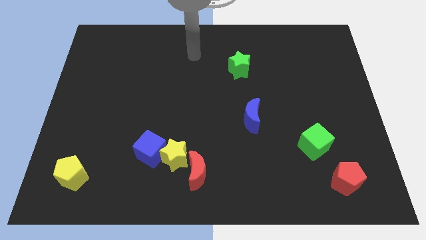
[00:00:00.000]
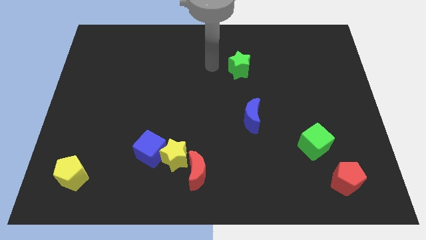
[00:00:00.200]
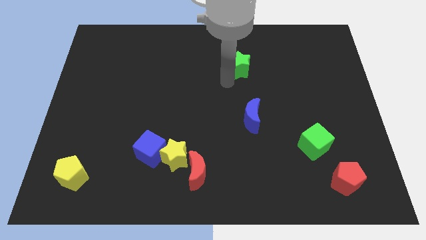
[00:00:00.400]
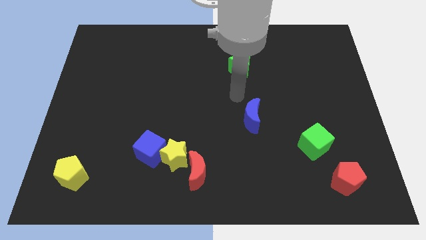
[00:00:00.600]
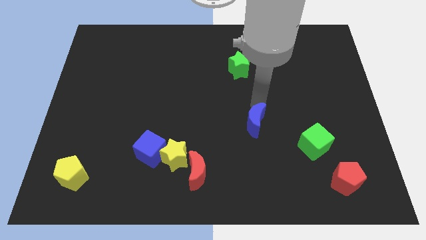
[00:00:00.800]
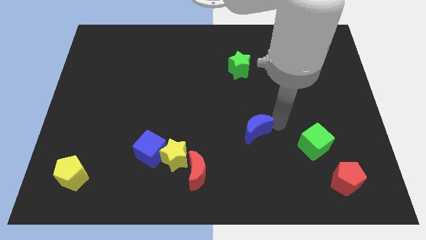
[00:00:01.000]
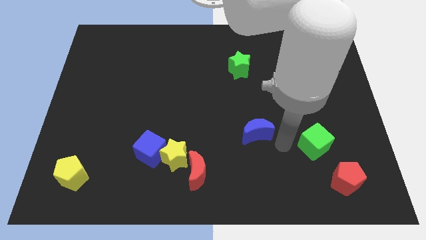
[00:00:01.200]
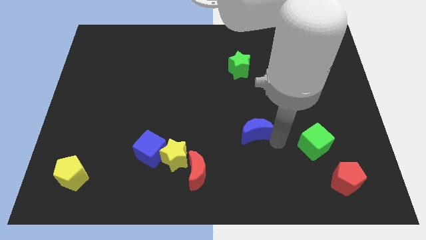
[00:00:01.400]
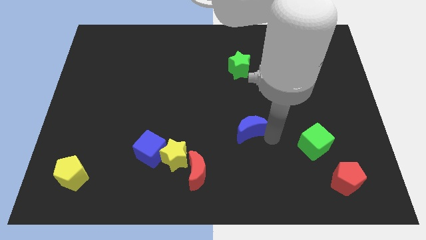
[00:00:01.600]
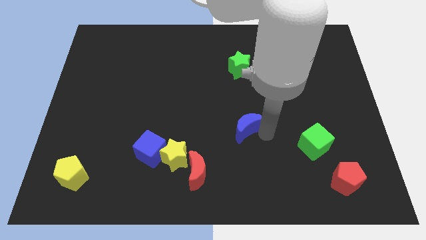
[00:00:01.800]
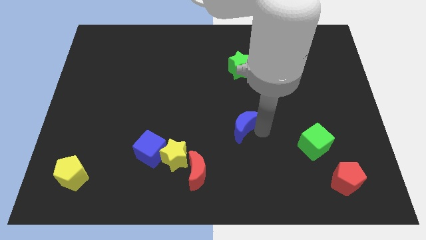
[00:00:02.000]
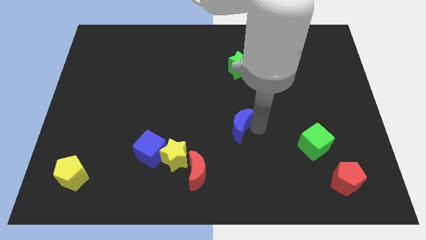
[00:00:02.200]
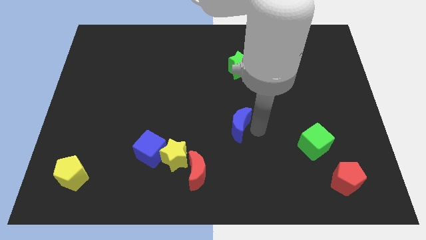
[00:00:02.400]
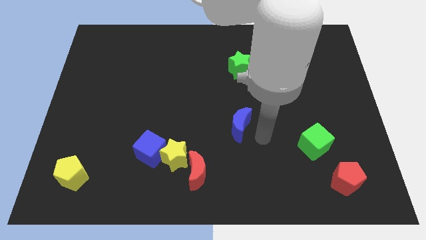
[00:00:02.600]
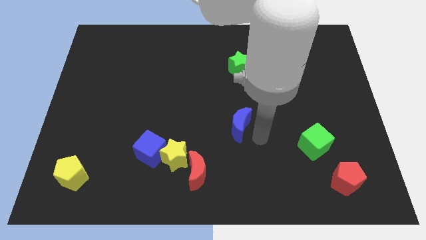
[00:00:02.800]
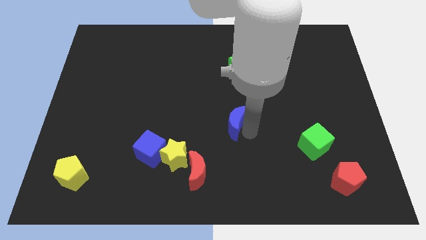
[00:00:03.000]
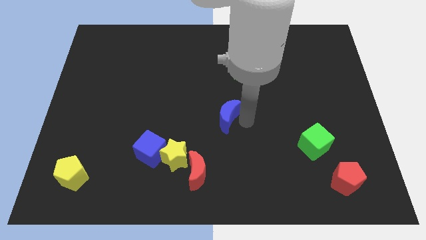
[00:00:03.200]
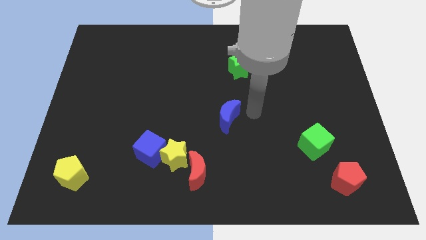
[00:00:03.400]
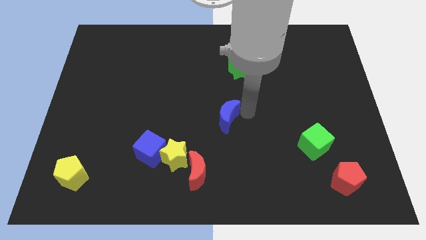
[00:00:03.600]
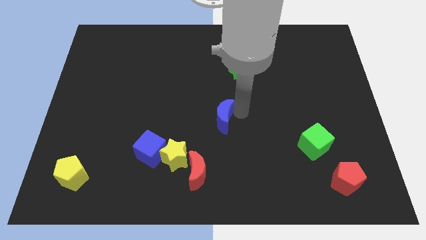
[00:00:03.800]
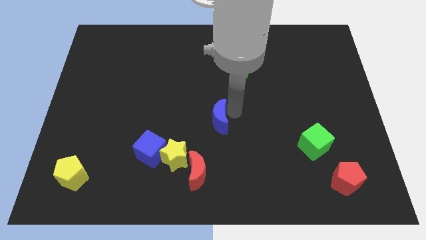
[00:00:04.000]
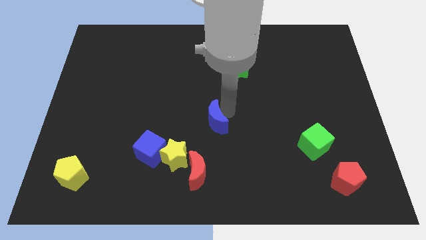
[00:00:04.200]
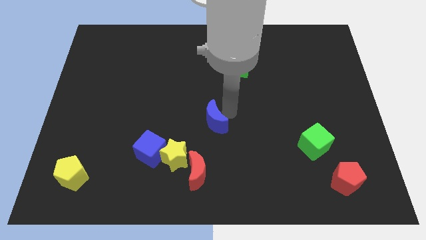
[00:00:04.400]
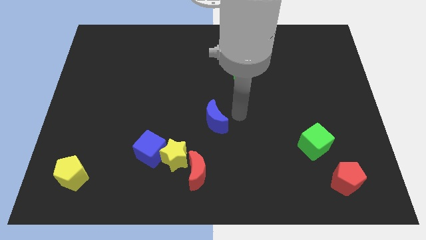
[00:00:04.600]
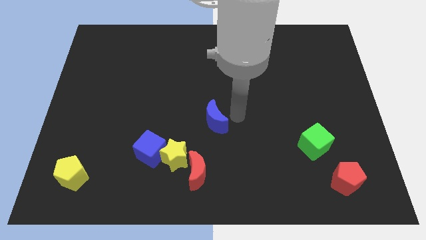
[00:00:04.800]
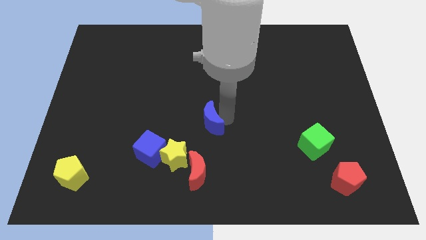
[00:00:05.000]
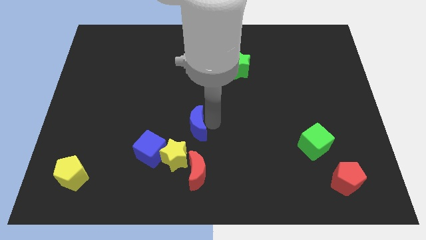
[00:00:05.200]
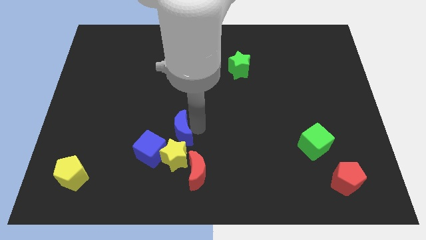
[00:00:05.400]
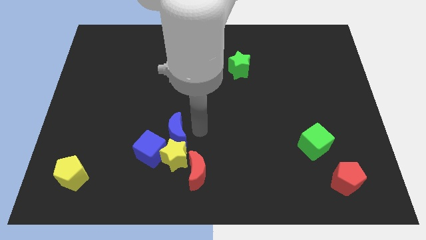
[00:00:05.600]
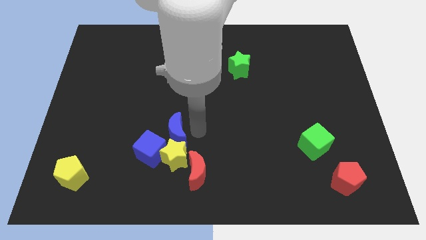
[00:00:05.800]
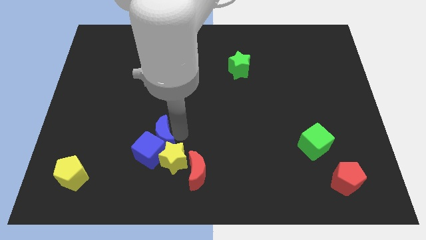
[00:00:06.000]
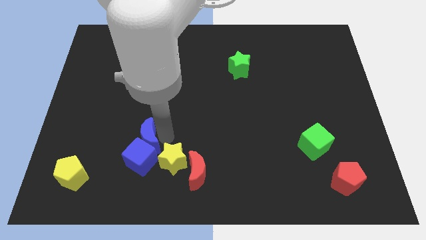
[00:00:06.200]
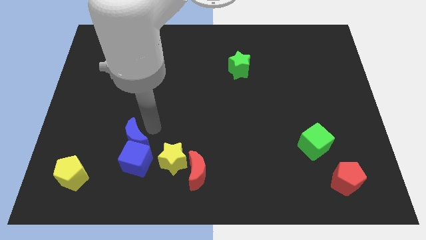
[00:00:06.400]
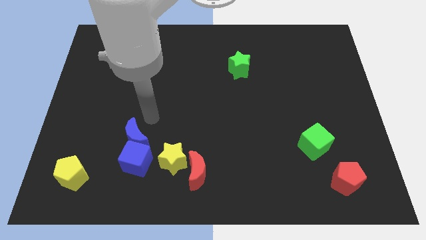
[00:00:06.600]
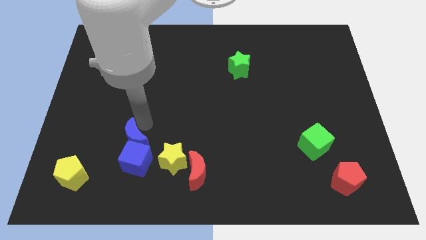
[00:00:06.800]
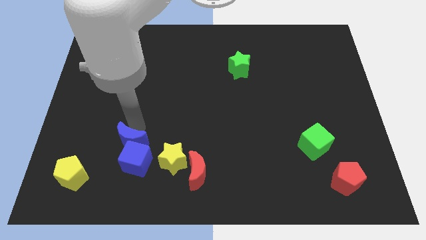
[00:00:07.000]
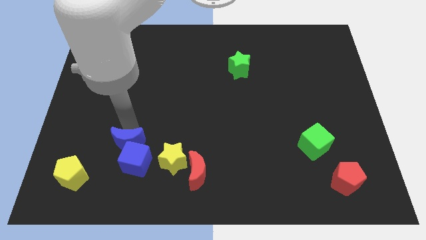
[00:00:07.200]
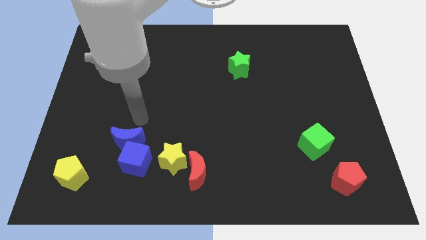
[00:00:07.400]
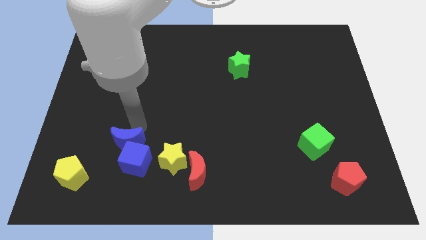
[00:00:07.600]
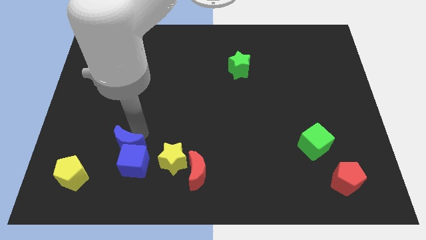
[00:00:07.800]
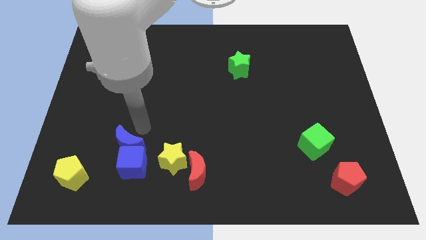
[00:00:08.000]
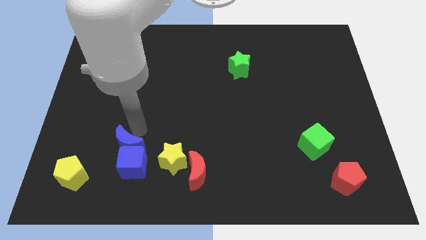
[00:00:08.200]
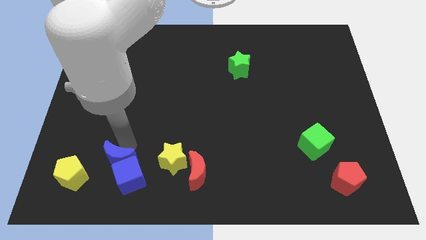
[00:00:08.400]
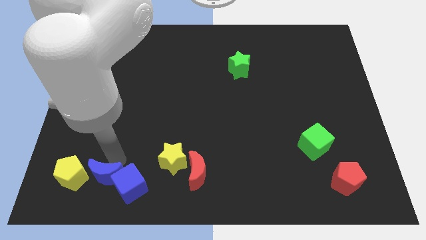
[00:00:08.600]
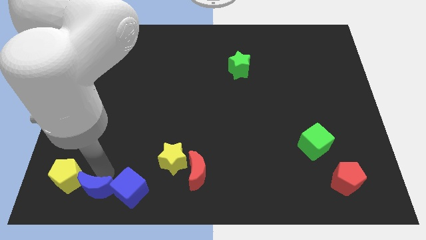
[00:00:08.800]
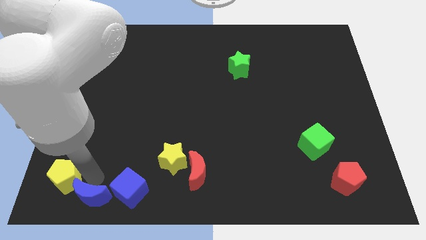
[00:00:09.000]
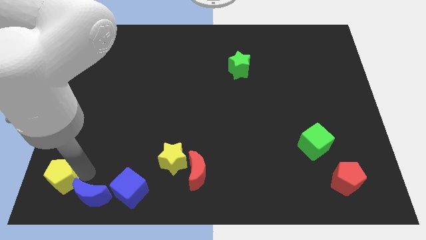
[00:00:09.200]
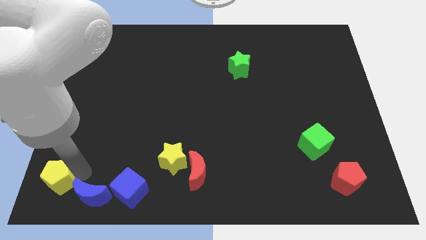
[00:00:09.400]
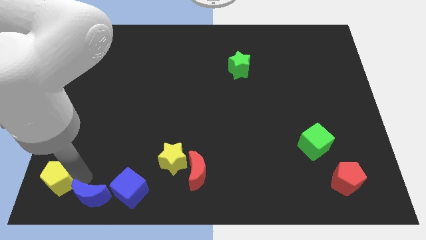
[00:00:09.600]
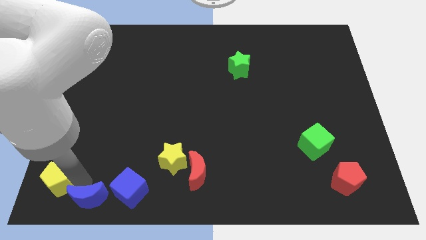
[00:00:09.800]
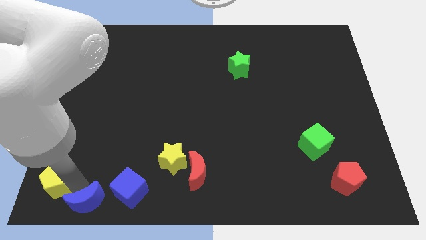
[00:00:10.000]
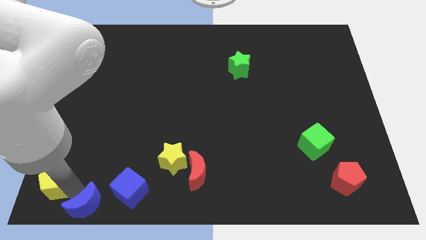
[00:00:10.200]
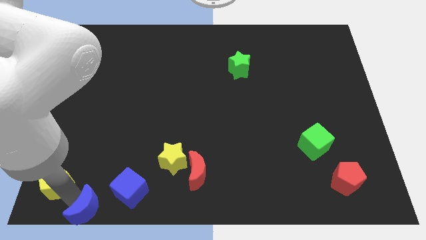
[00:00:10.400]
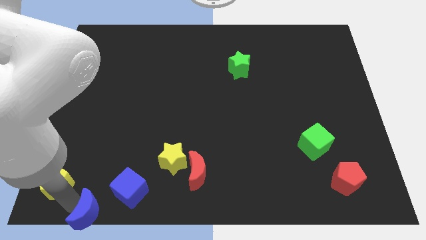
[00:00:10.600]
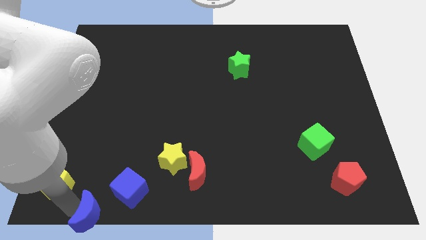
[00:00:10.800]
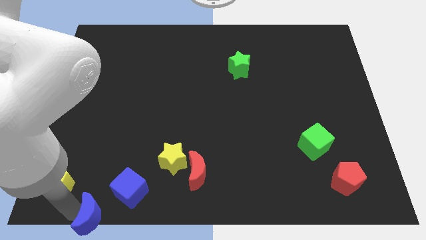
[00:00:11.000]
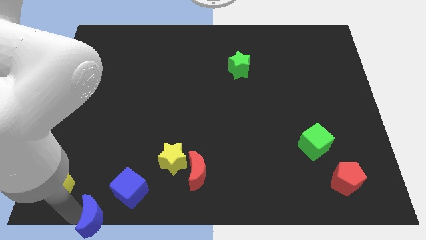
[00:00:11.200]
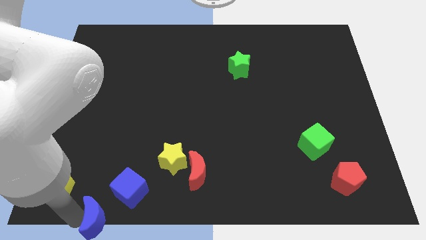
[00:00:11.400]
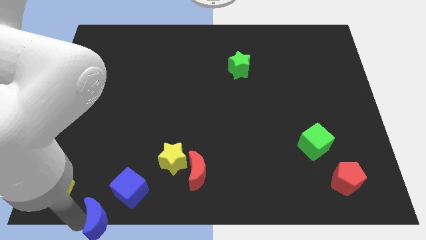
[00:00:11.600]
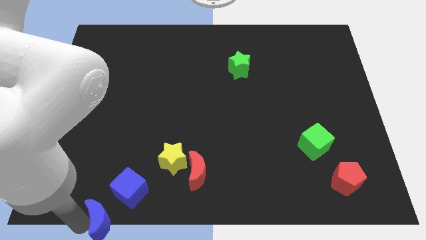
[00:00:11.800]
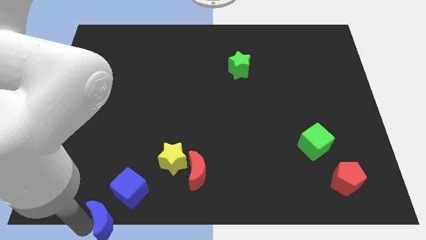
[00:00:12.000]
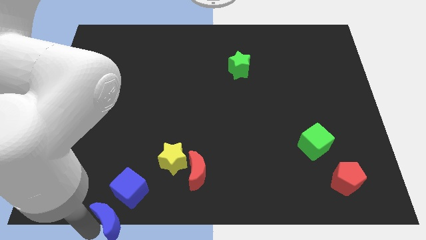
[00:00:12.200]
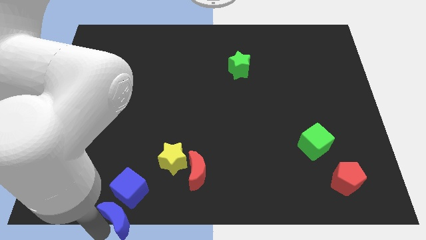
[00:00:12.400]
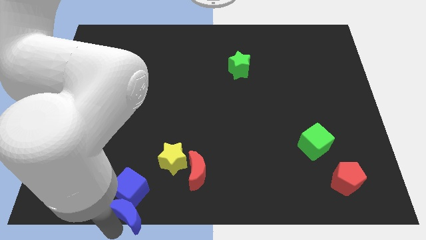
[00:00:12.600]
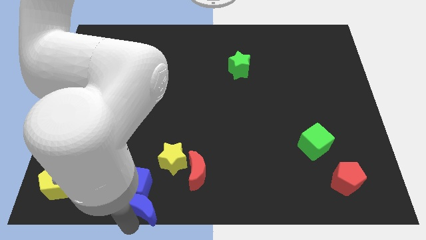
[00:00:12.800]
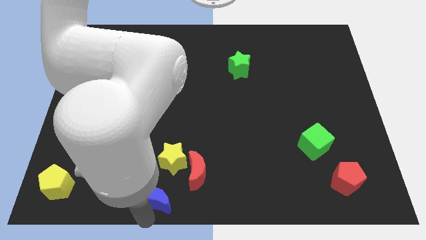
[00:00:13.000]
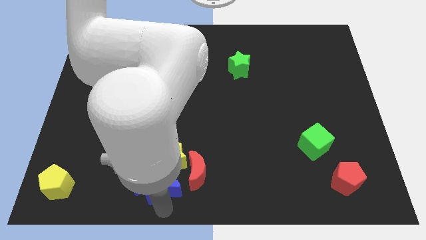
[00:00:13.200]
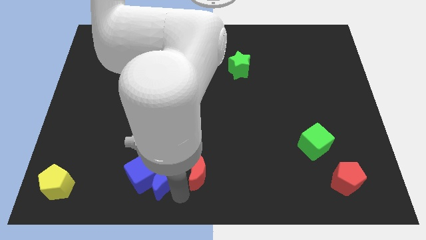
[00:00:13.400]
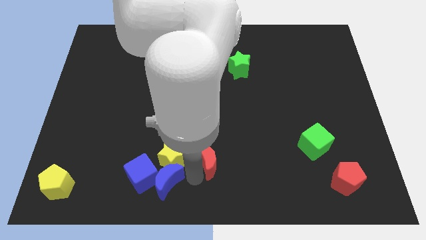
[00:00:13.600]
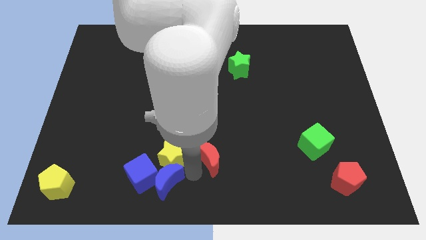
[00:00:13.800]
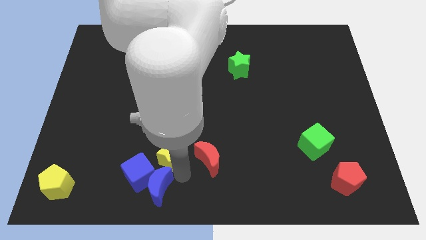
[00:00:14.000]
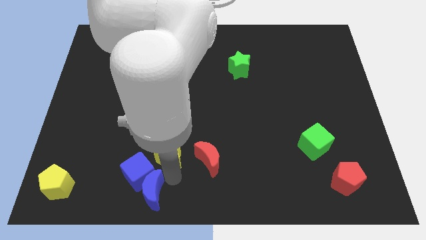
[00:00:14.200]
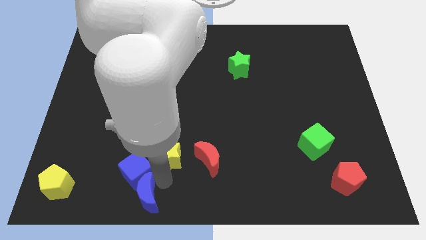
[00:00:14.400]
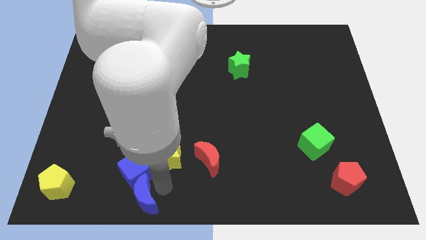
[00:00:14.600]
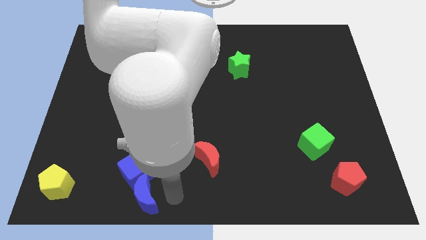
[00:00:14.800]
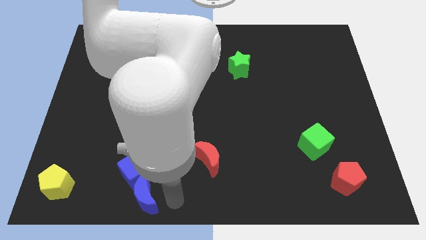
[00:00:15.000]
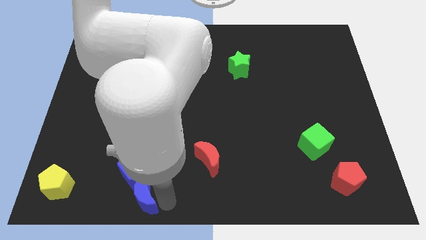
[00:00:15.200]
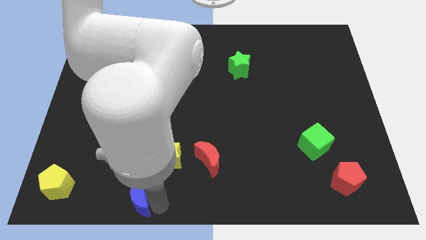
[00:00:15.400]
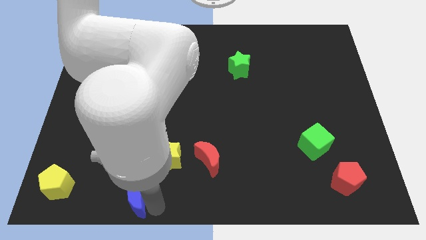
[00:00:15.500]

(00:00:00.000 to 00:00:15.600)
push the blue moon diagonally down and to the left of the blue cube
